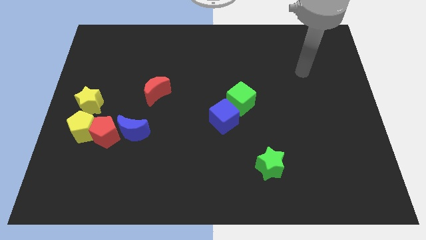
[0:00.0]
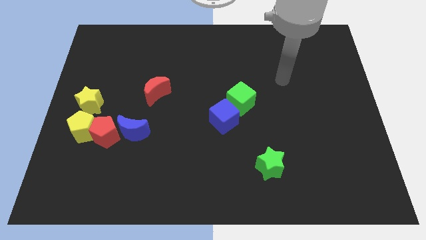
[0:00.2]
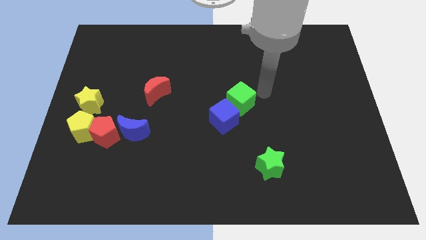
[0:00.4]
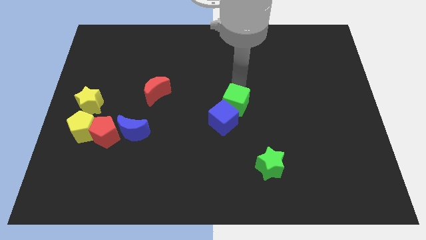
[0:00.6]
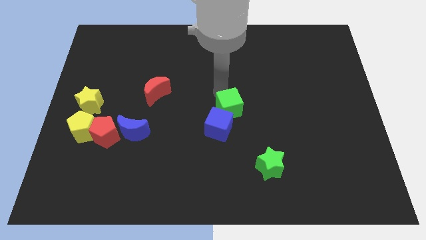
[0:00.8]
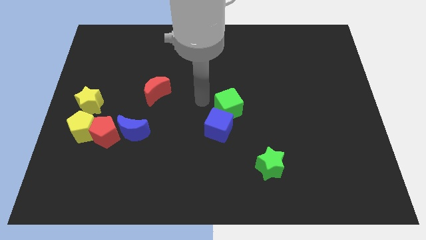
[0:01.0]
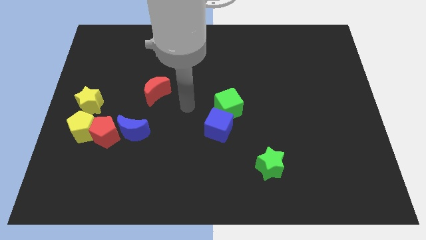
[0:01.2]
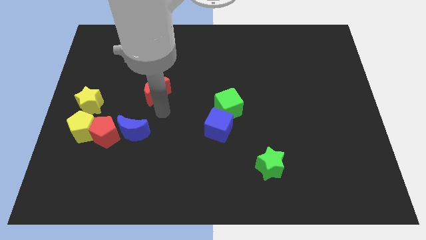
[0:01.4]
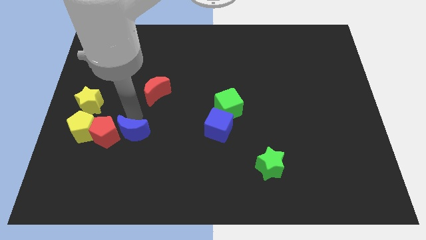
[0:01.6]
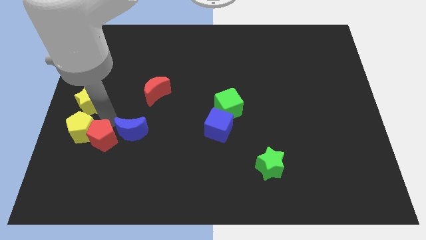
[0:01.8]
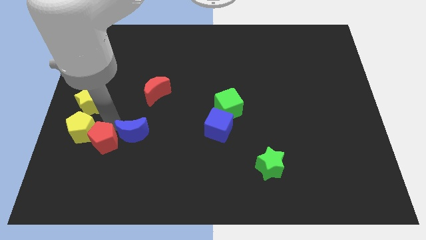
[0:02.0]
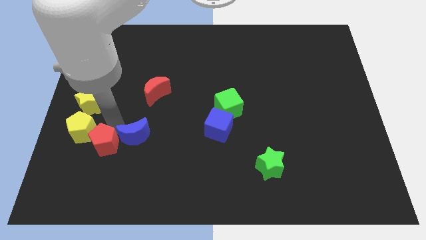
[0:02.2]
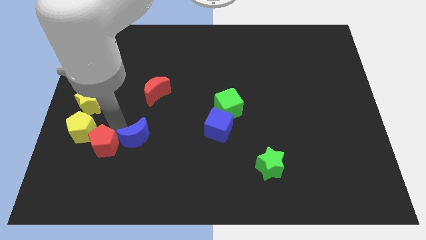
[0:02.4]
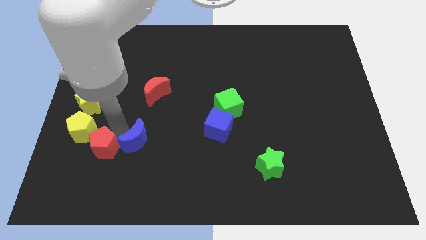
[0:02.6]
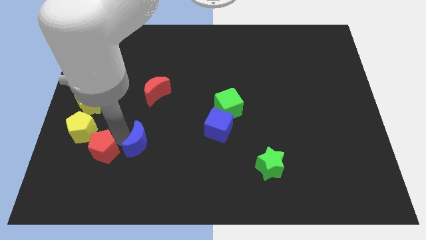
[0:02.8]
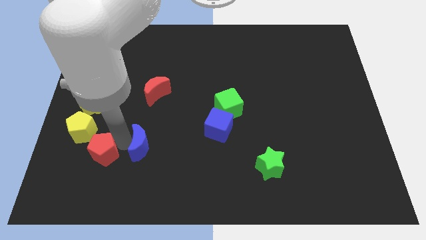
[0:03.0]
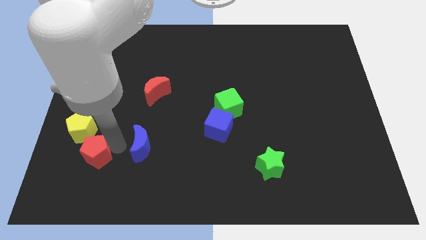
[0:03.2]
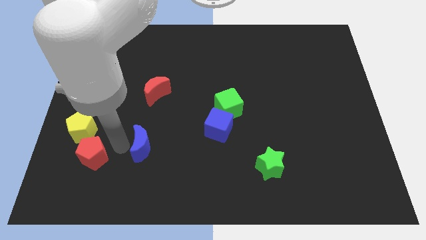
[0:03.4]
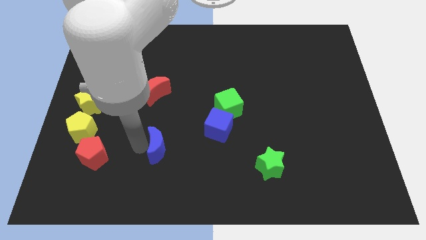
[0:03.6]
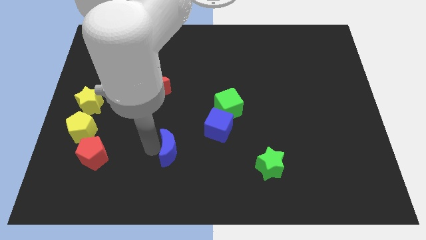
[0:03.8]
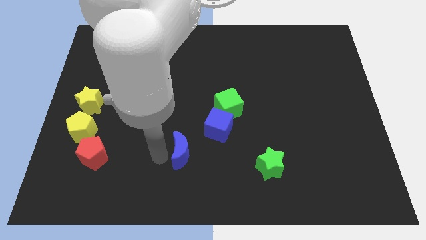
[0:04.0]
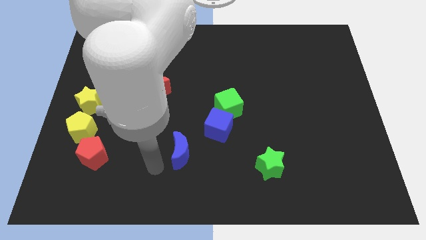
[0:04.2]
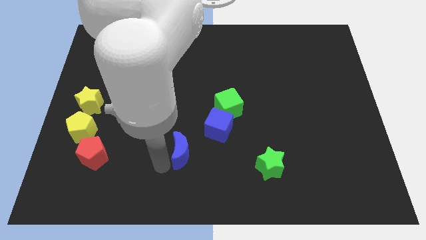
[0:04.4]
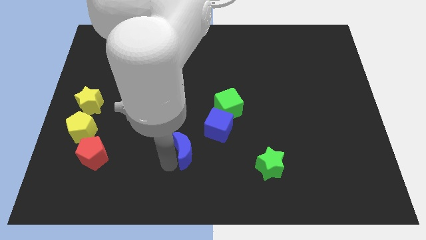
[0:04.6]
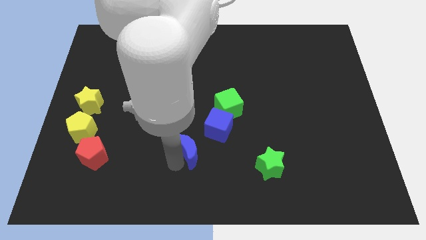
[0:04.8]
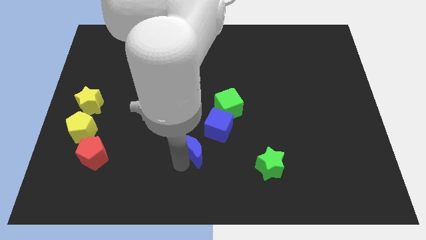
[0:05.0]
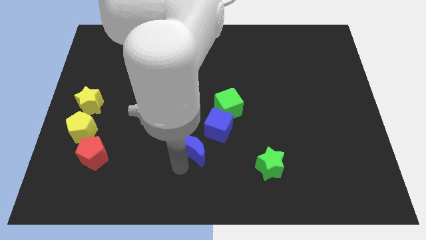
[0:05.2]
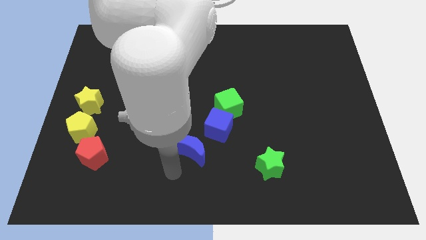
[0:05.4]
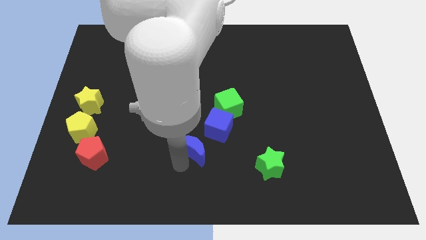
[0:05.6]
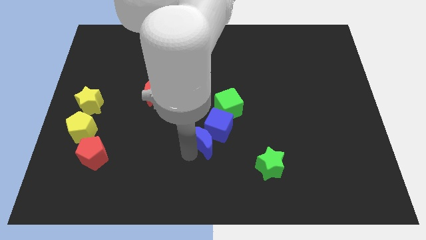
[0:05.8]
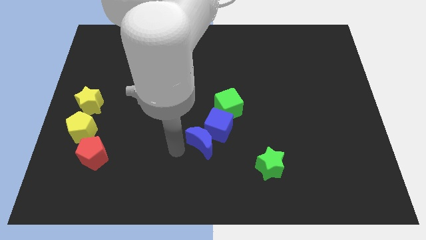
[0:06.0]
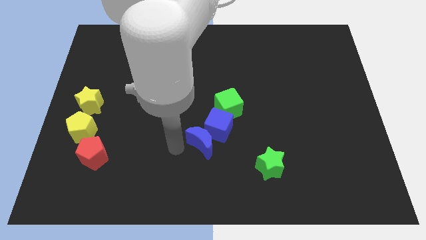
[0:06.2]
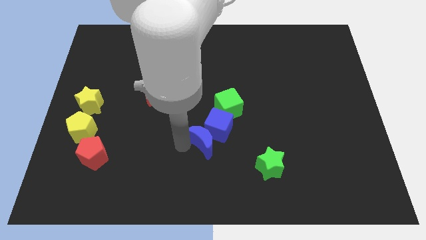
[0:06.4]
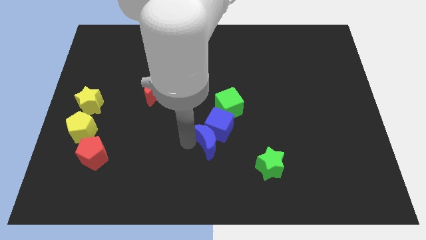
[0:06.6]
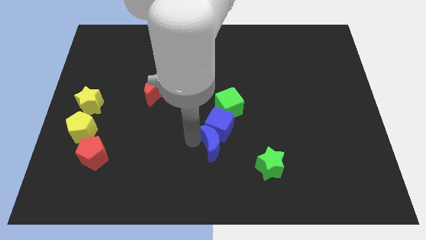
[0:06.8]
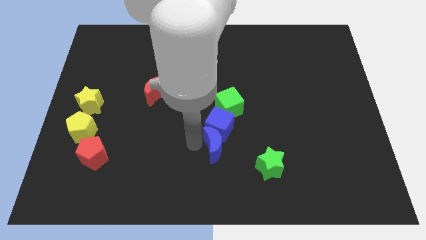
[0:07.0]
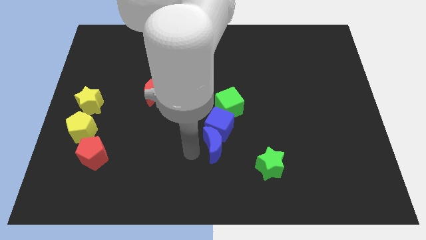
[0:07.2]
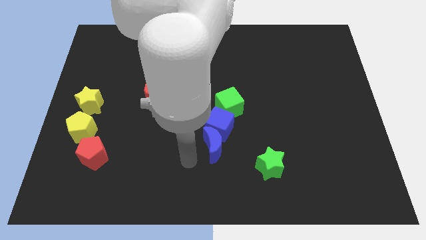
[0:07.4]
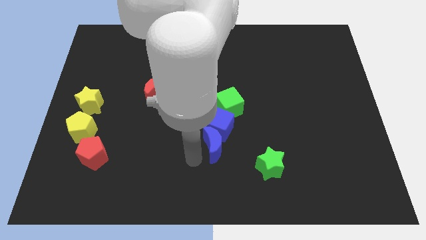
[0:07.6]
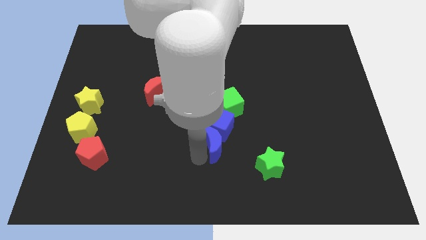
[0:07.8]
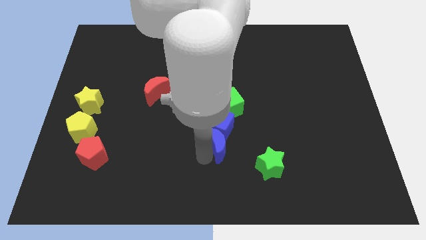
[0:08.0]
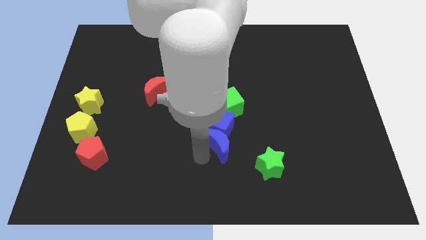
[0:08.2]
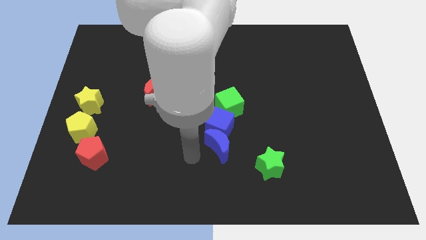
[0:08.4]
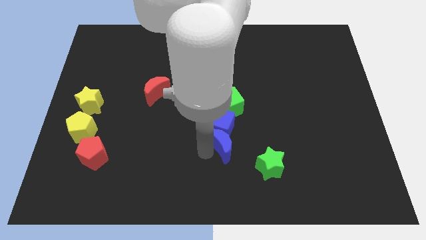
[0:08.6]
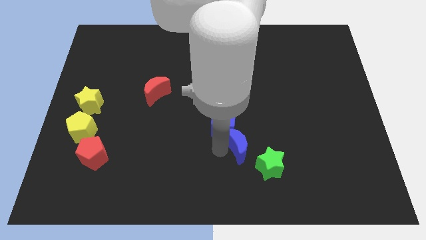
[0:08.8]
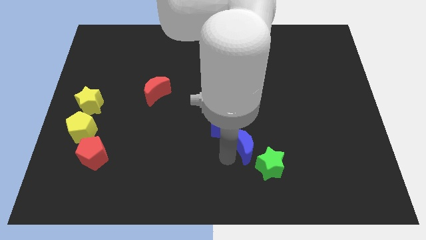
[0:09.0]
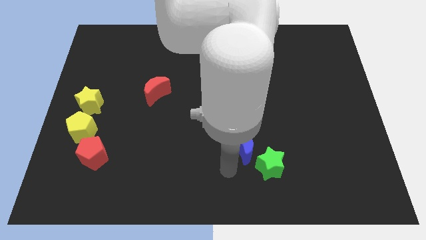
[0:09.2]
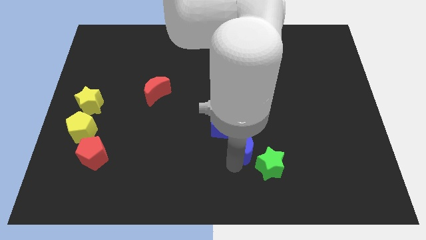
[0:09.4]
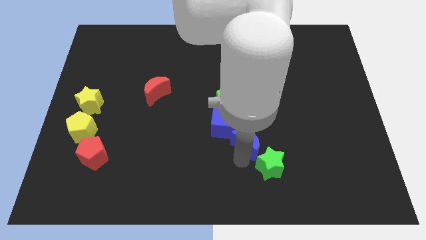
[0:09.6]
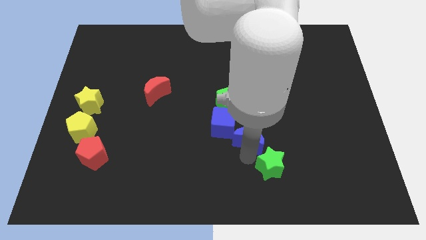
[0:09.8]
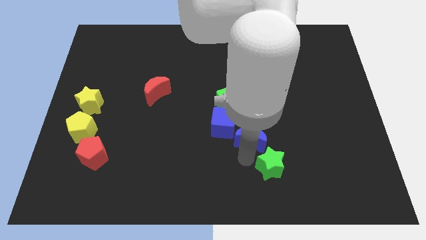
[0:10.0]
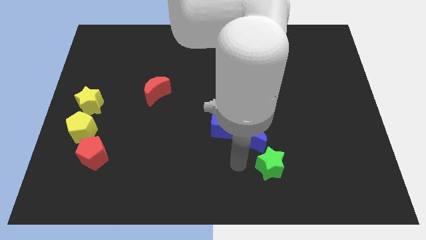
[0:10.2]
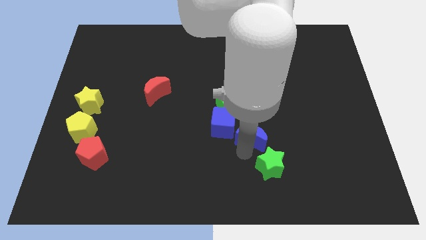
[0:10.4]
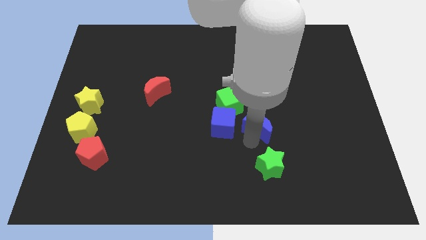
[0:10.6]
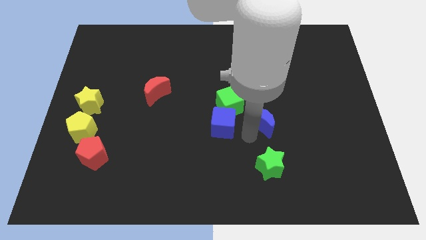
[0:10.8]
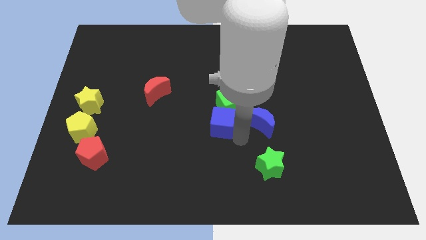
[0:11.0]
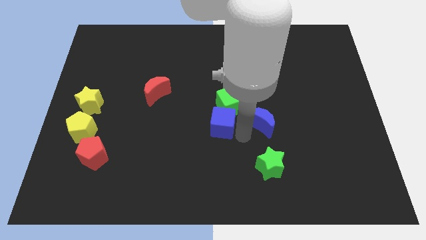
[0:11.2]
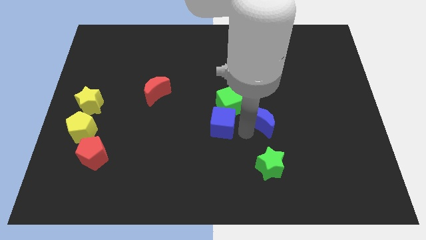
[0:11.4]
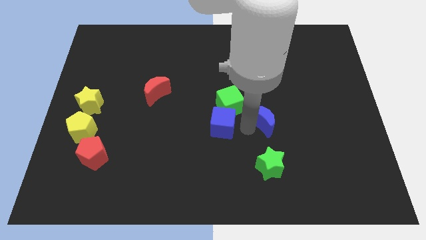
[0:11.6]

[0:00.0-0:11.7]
slide the blue moon to the right side of the green cube

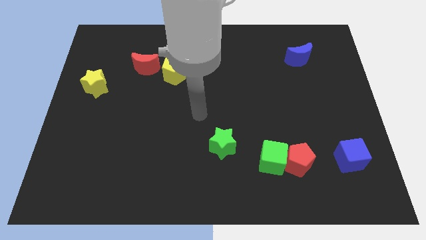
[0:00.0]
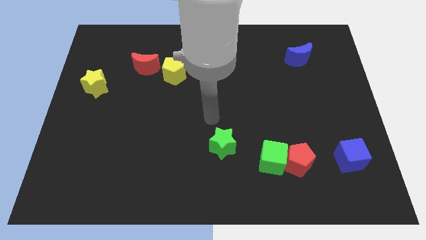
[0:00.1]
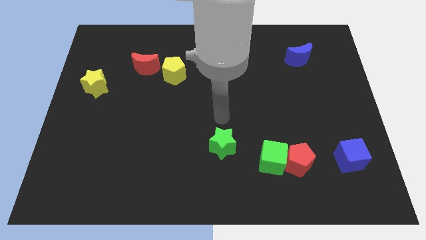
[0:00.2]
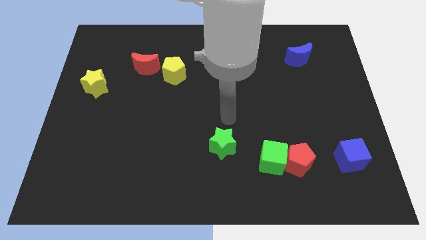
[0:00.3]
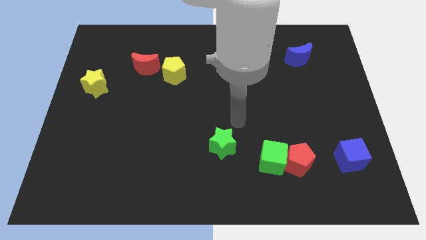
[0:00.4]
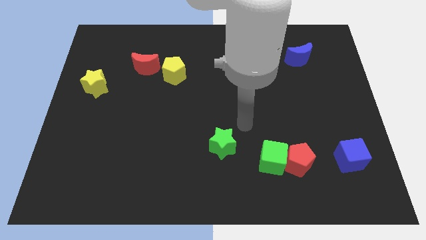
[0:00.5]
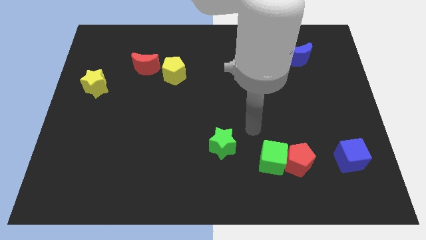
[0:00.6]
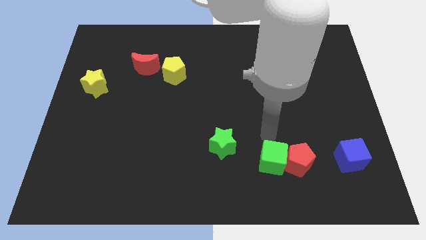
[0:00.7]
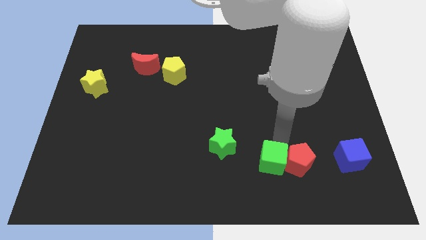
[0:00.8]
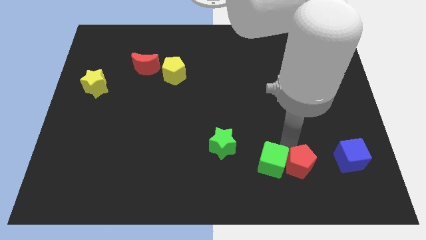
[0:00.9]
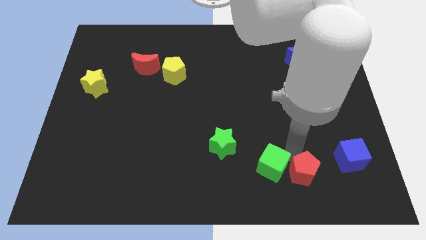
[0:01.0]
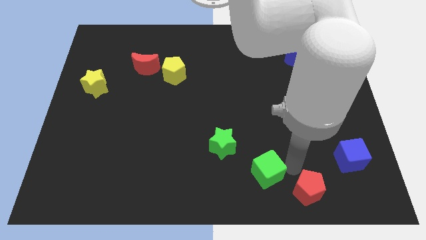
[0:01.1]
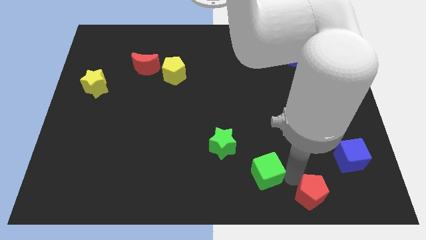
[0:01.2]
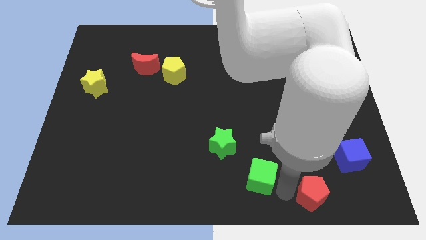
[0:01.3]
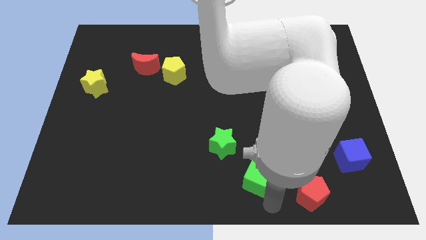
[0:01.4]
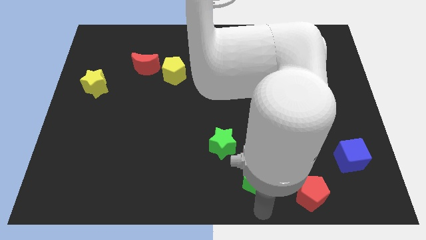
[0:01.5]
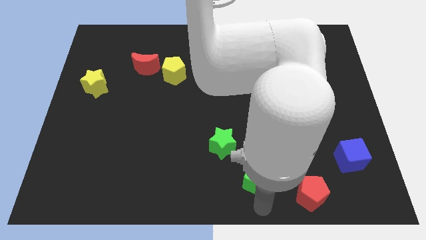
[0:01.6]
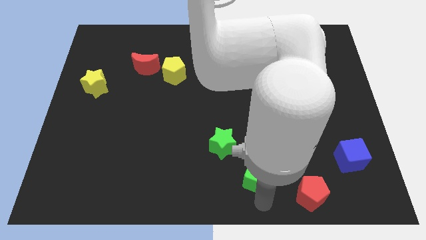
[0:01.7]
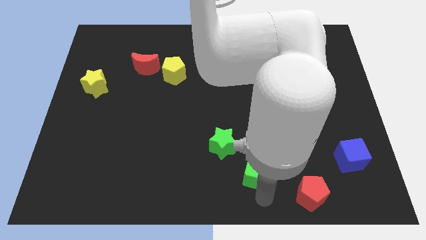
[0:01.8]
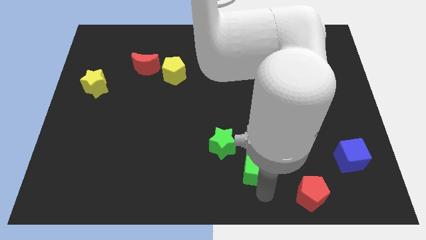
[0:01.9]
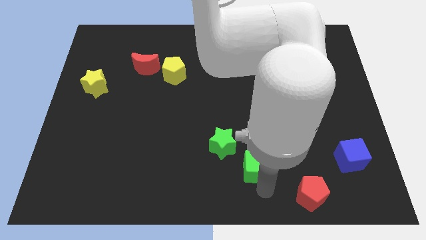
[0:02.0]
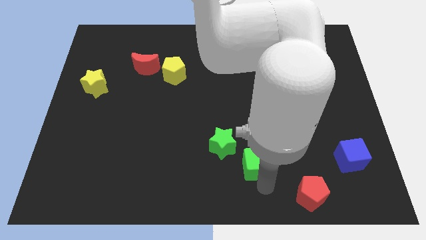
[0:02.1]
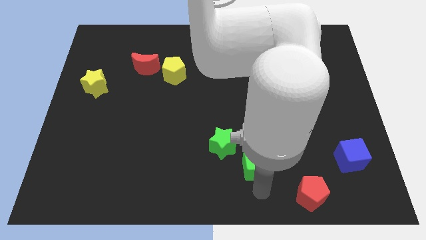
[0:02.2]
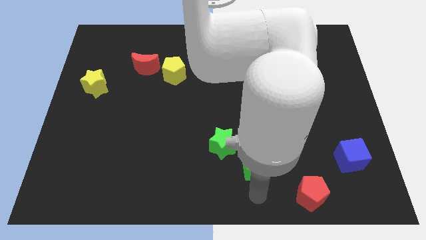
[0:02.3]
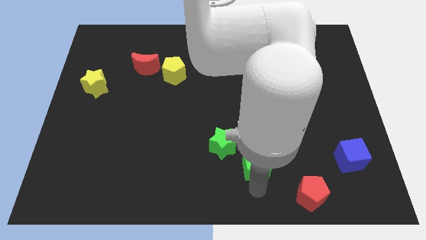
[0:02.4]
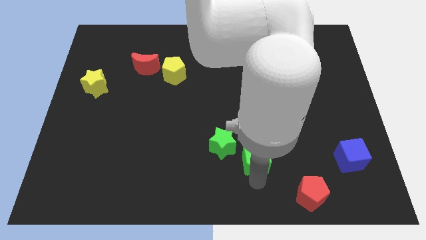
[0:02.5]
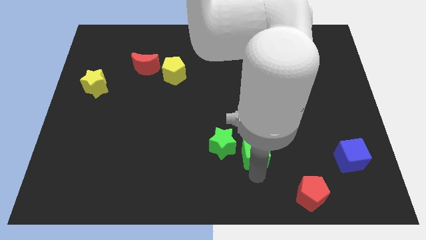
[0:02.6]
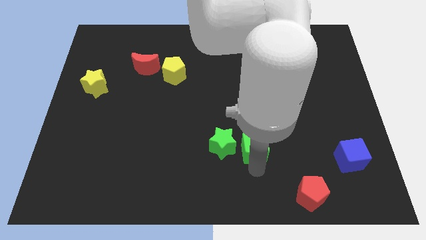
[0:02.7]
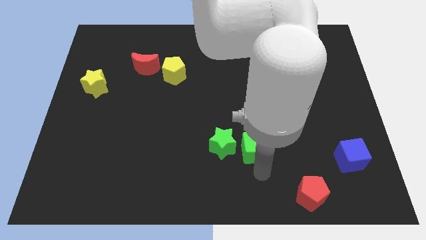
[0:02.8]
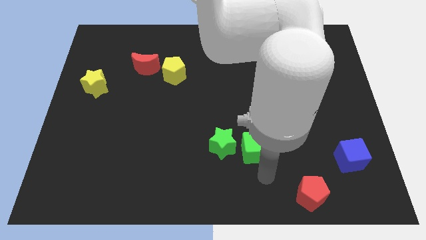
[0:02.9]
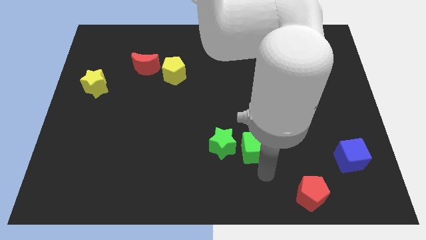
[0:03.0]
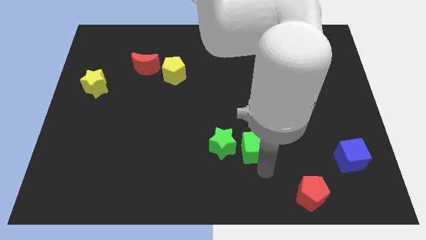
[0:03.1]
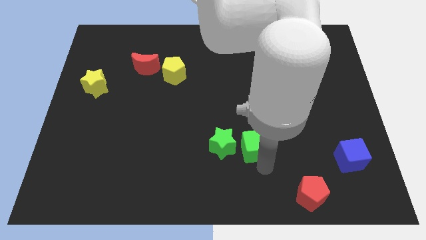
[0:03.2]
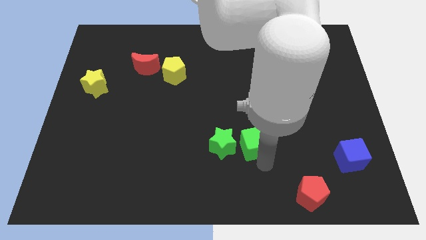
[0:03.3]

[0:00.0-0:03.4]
put the green cube to the top right of the green star
